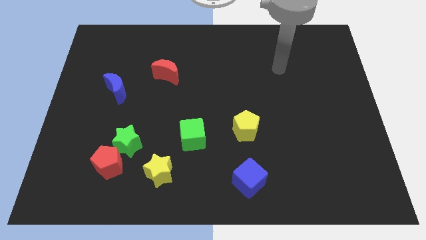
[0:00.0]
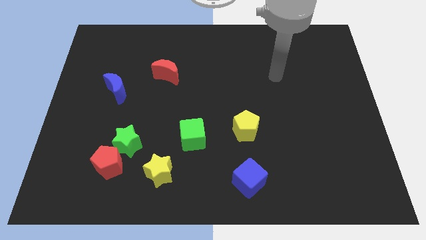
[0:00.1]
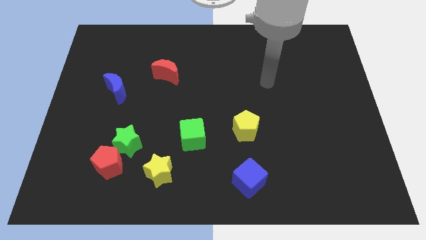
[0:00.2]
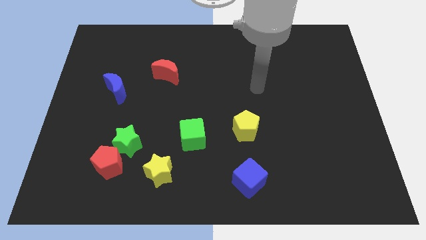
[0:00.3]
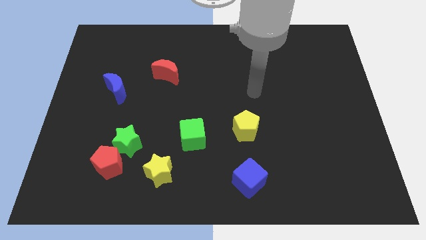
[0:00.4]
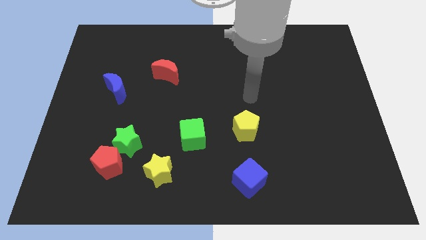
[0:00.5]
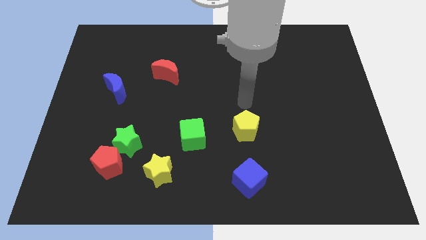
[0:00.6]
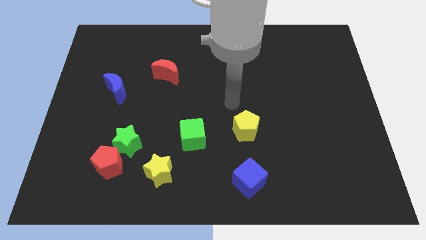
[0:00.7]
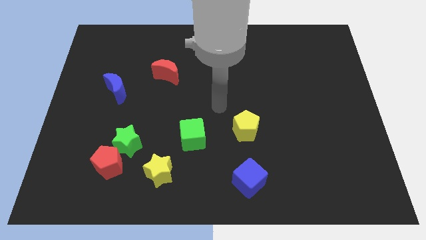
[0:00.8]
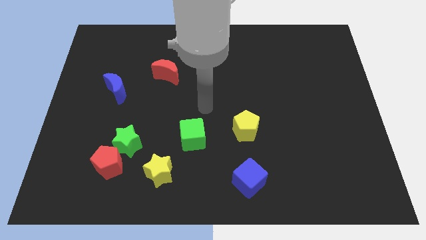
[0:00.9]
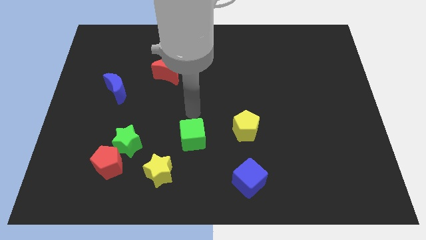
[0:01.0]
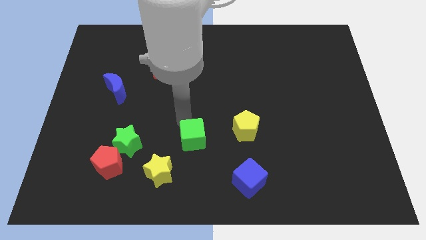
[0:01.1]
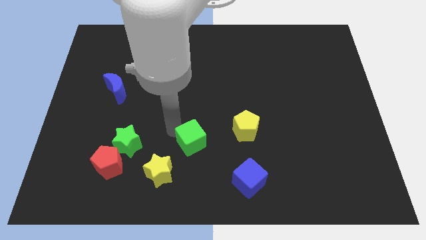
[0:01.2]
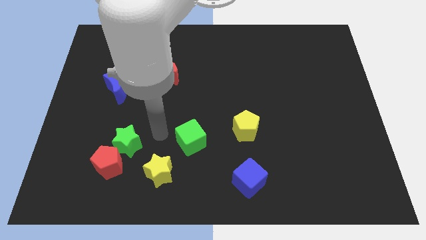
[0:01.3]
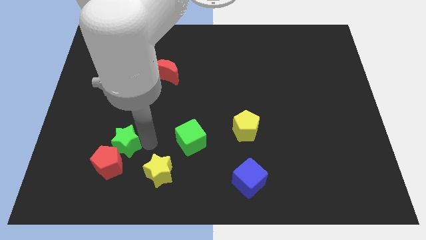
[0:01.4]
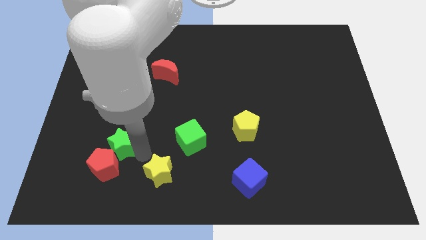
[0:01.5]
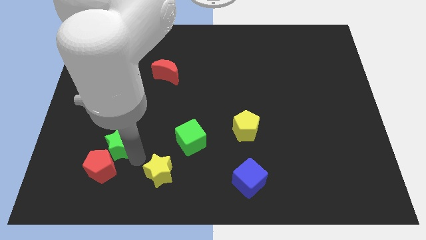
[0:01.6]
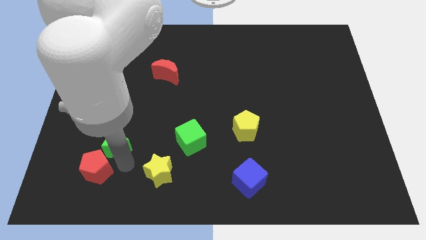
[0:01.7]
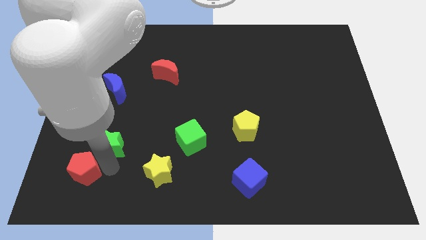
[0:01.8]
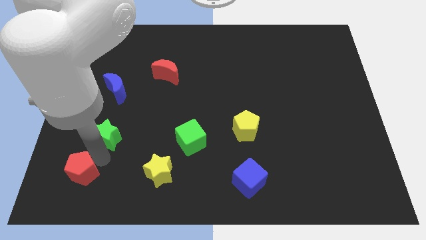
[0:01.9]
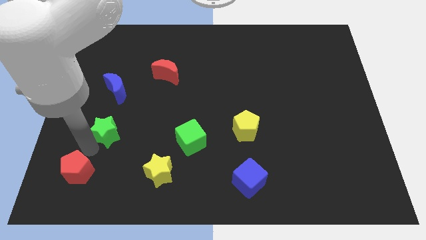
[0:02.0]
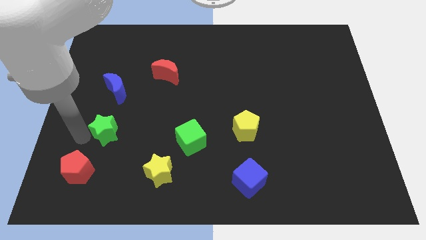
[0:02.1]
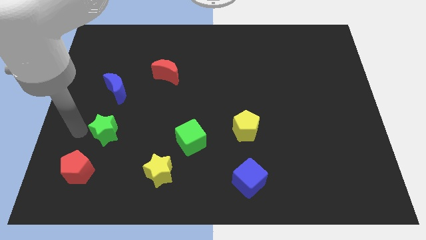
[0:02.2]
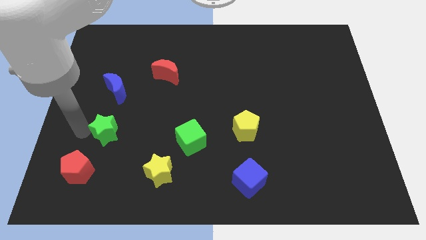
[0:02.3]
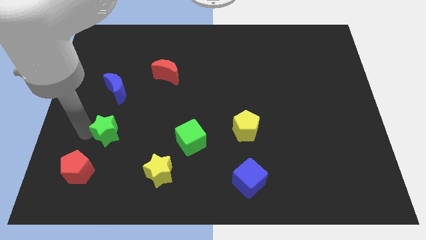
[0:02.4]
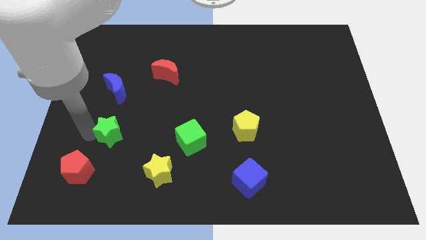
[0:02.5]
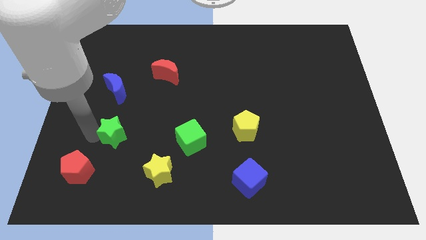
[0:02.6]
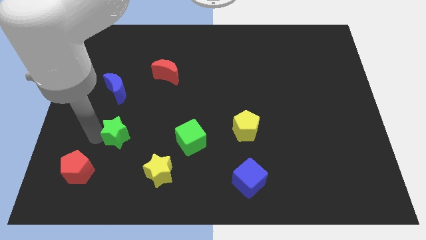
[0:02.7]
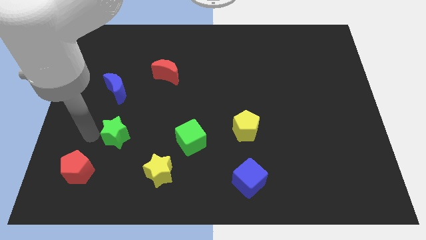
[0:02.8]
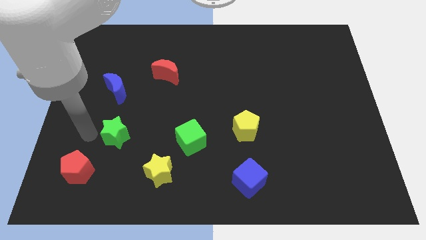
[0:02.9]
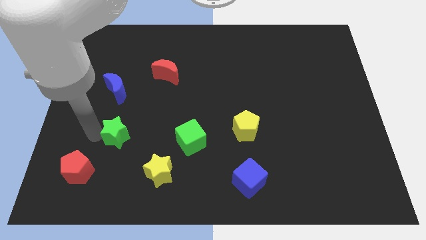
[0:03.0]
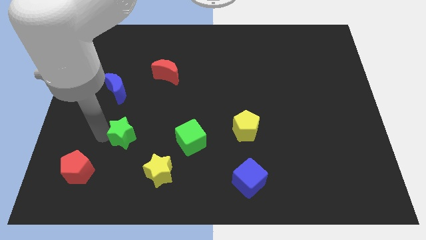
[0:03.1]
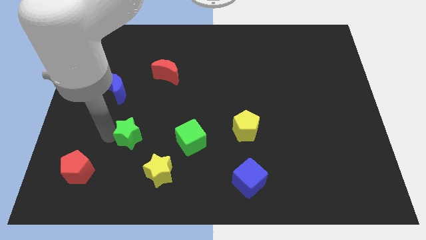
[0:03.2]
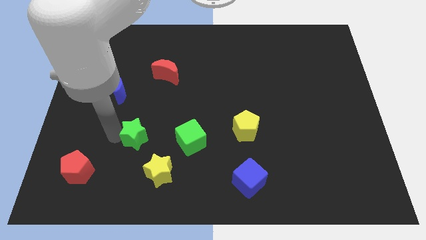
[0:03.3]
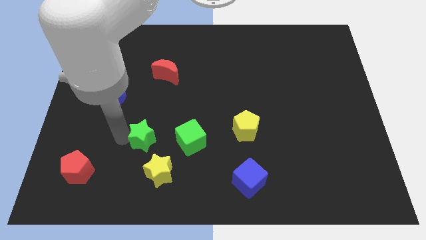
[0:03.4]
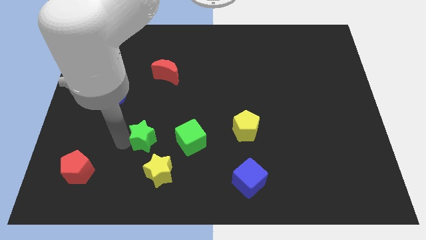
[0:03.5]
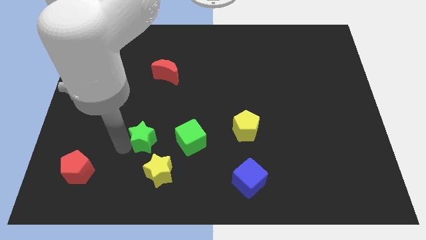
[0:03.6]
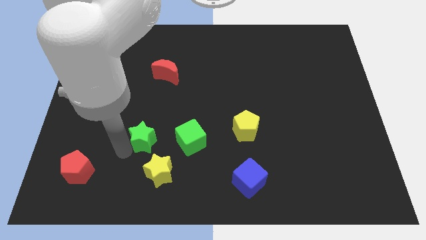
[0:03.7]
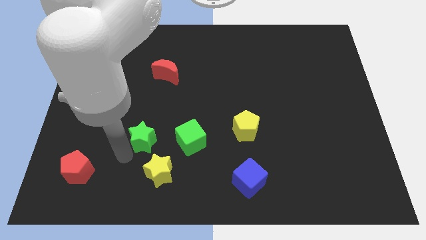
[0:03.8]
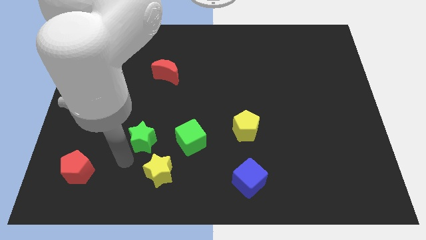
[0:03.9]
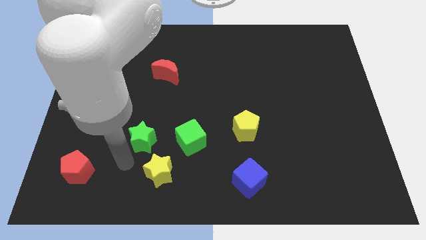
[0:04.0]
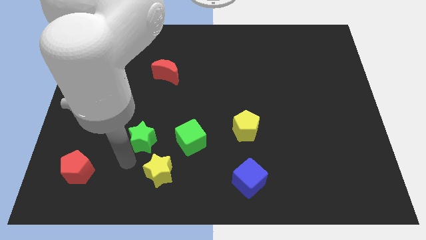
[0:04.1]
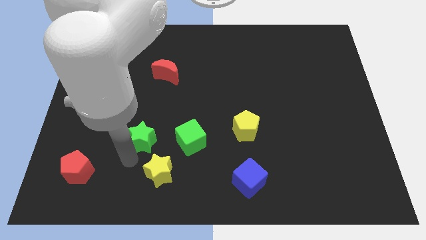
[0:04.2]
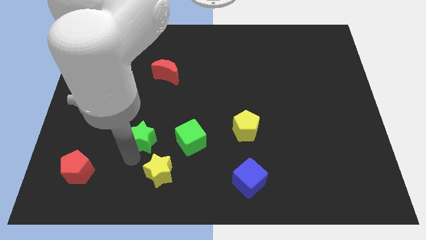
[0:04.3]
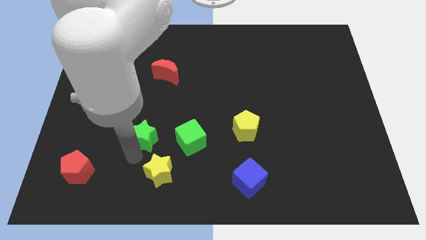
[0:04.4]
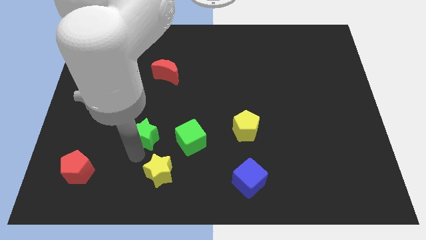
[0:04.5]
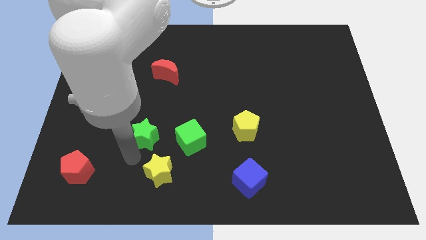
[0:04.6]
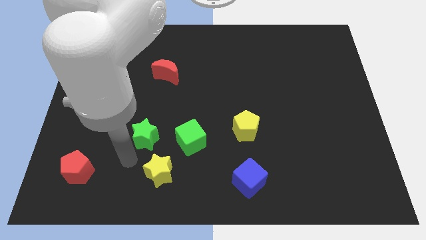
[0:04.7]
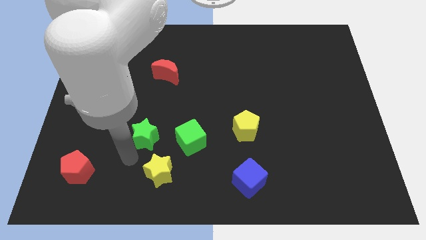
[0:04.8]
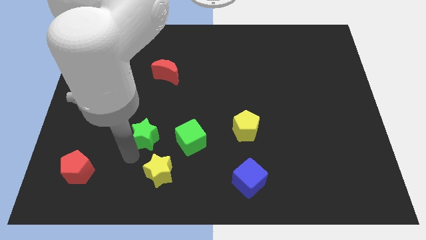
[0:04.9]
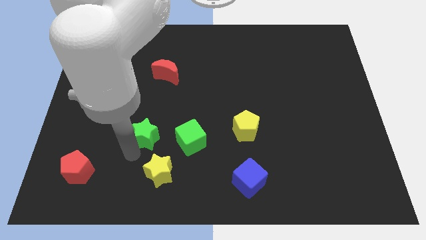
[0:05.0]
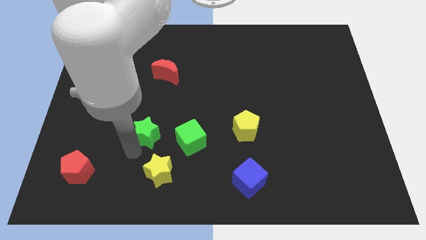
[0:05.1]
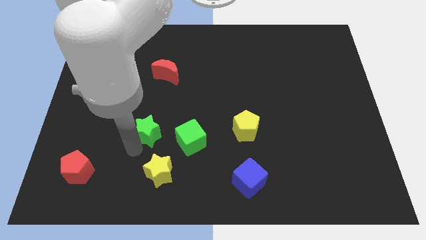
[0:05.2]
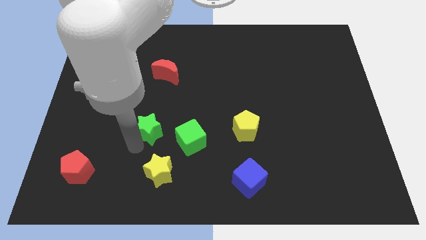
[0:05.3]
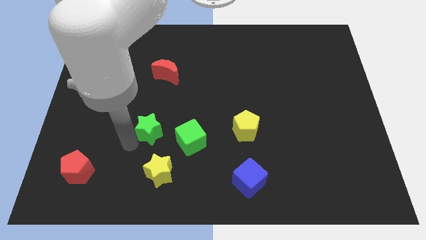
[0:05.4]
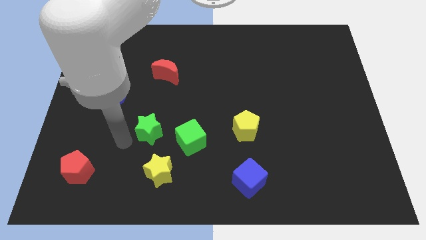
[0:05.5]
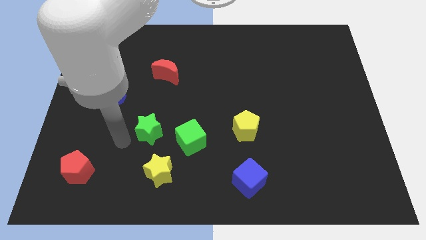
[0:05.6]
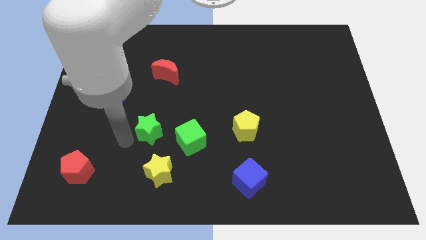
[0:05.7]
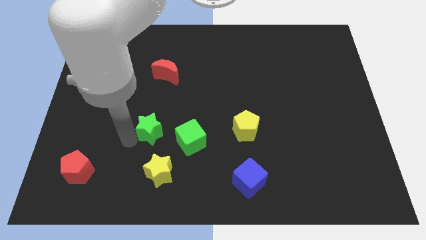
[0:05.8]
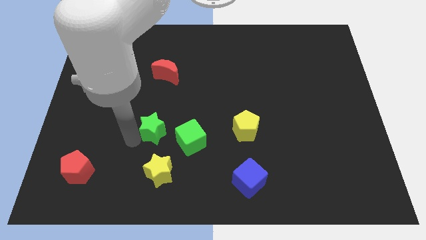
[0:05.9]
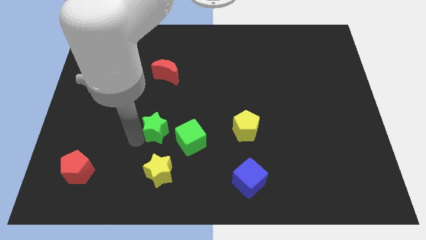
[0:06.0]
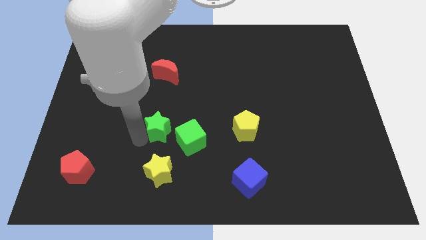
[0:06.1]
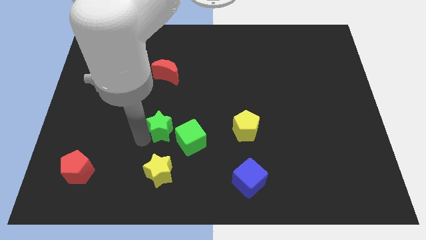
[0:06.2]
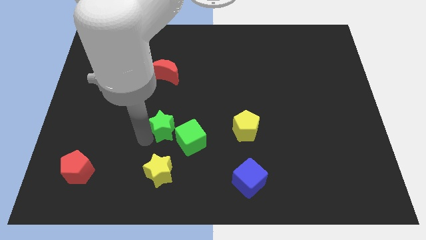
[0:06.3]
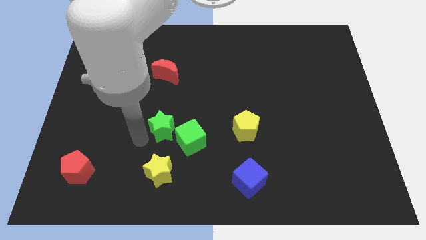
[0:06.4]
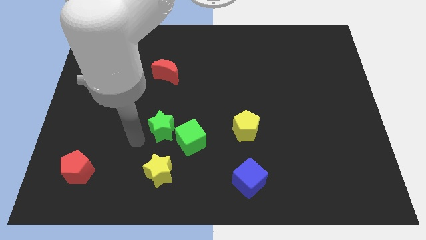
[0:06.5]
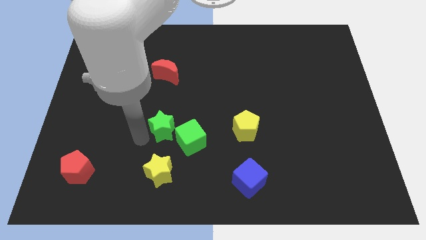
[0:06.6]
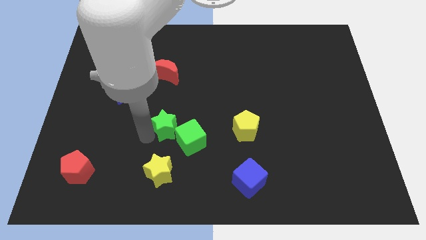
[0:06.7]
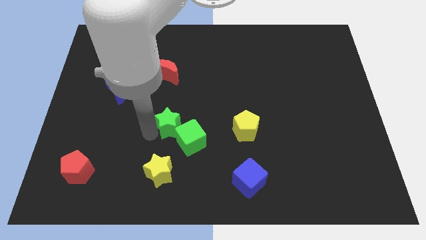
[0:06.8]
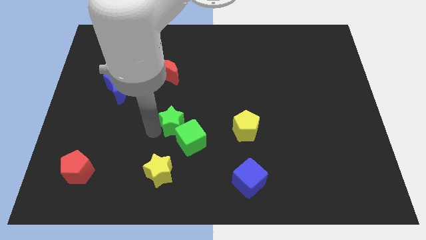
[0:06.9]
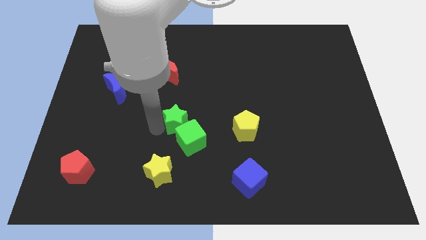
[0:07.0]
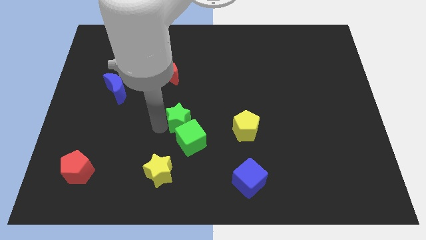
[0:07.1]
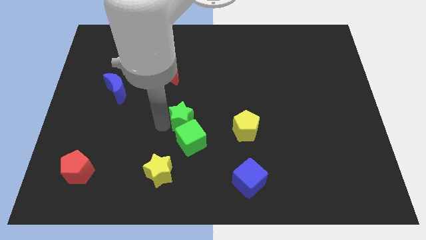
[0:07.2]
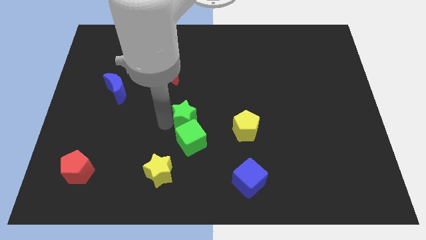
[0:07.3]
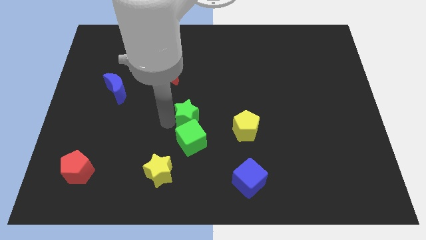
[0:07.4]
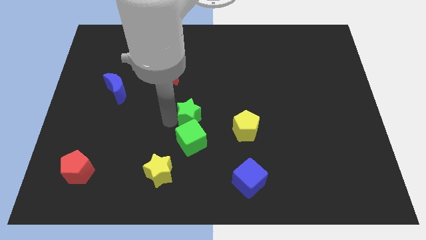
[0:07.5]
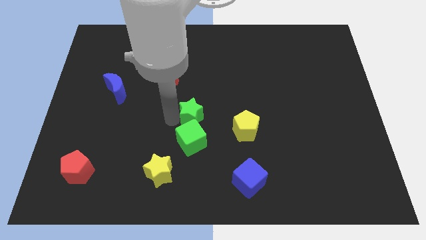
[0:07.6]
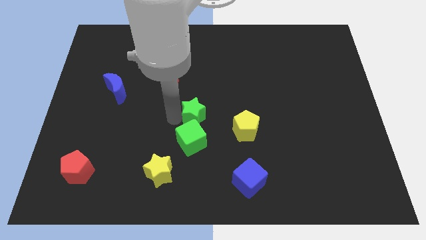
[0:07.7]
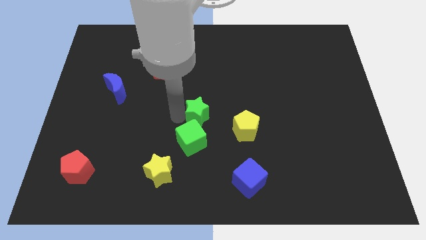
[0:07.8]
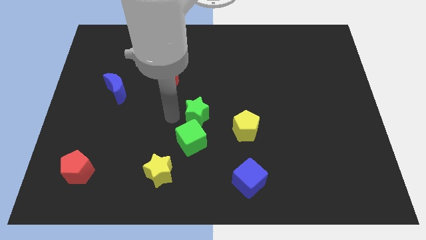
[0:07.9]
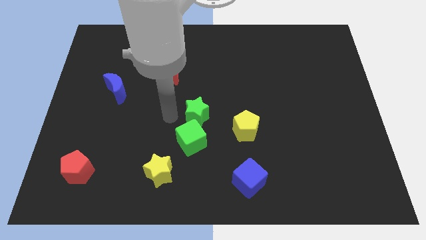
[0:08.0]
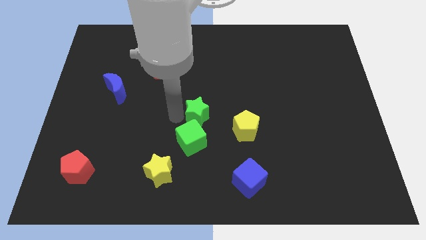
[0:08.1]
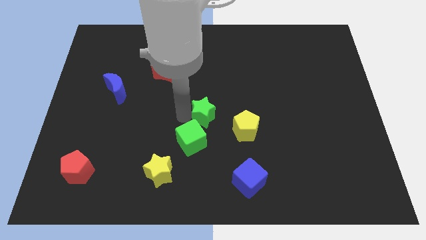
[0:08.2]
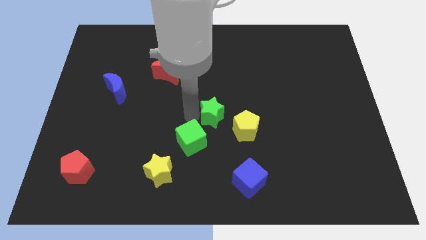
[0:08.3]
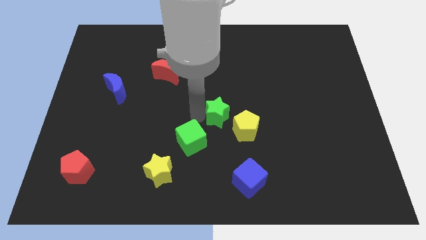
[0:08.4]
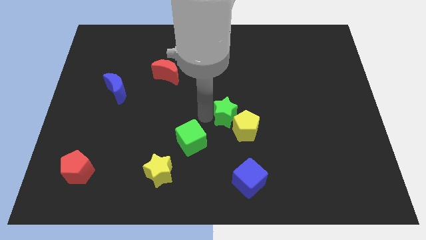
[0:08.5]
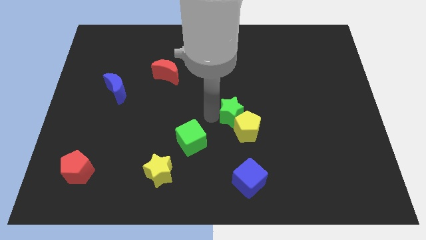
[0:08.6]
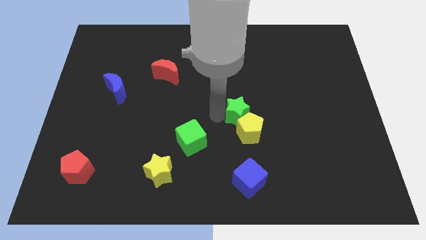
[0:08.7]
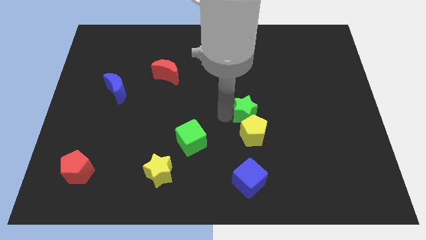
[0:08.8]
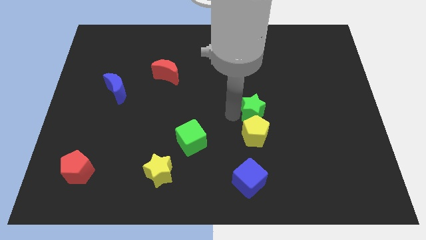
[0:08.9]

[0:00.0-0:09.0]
slide the green star to the top right of the yellow pentagon
